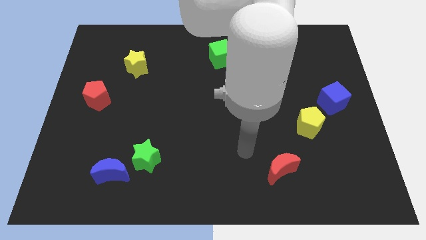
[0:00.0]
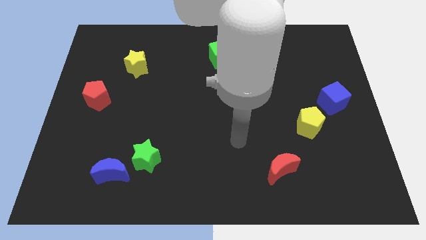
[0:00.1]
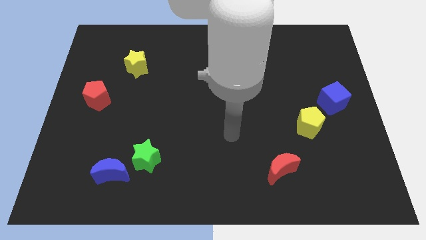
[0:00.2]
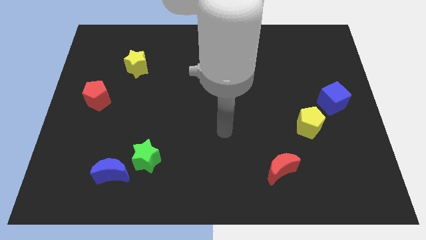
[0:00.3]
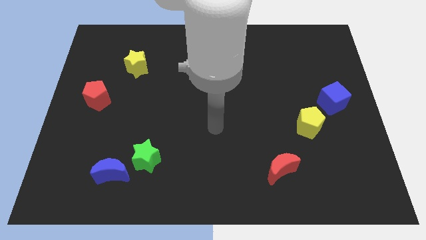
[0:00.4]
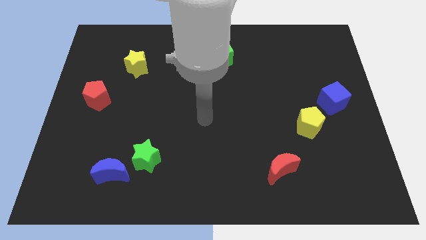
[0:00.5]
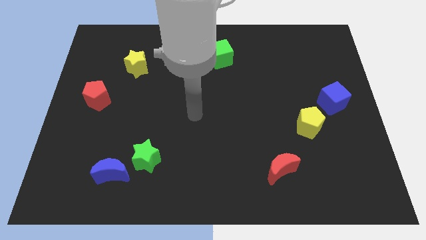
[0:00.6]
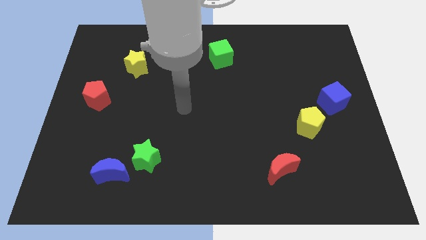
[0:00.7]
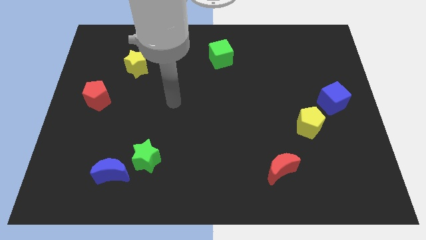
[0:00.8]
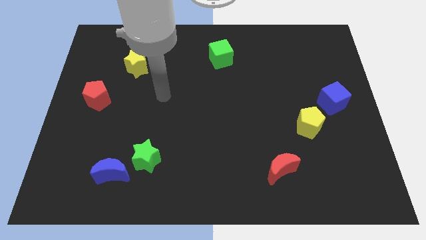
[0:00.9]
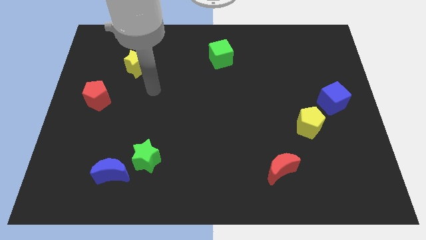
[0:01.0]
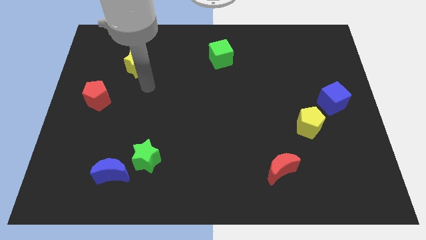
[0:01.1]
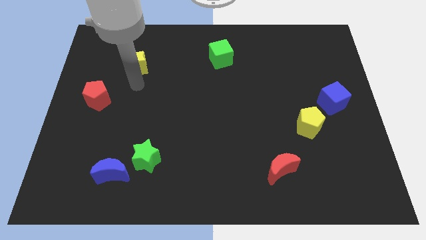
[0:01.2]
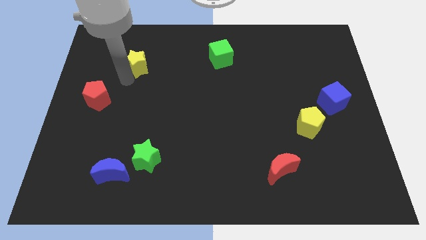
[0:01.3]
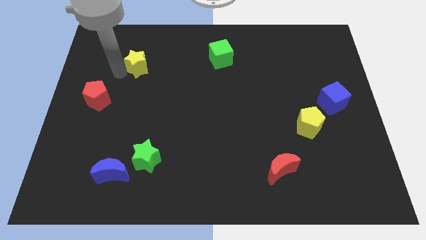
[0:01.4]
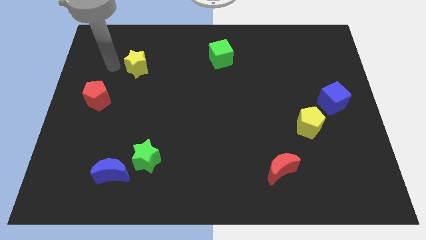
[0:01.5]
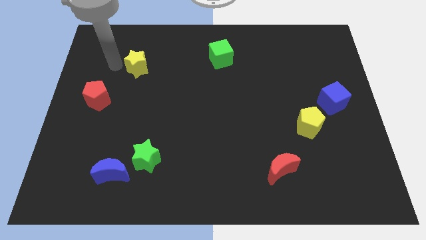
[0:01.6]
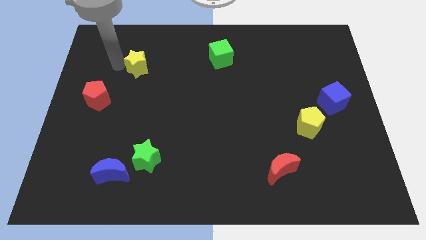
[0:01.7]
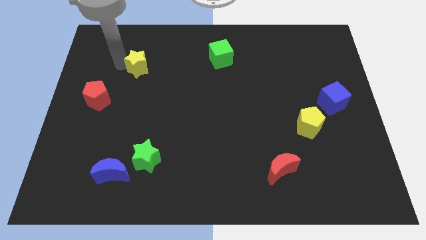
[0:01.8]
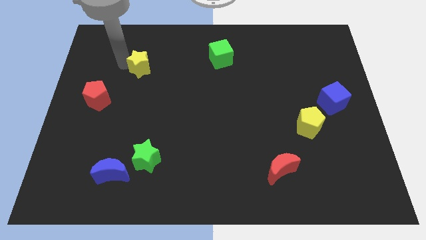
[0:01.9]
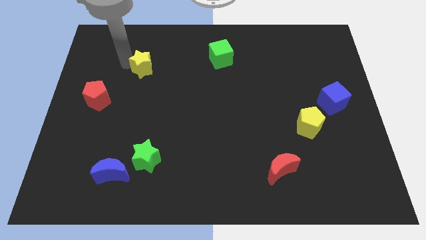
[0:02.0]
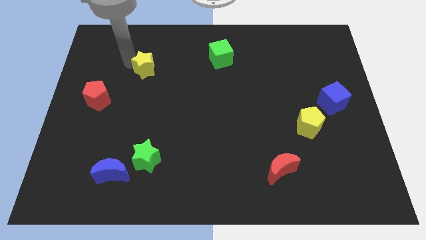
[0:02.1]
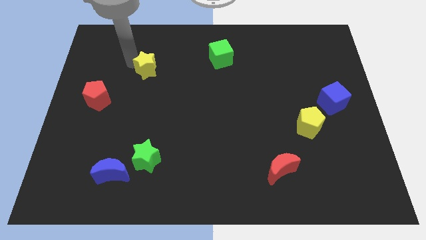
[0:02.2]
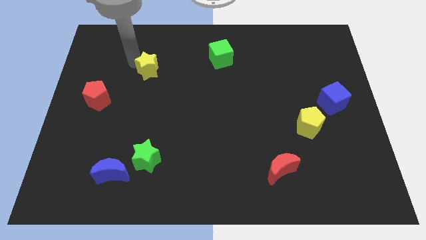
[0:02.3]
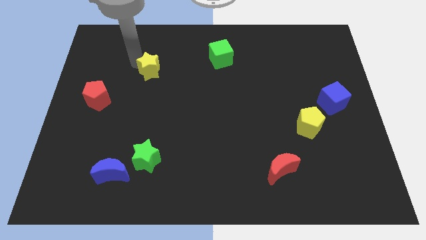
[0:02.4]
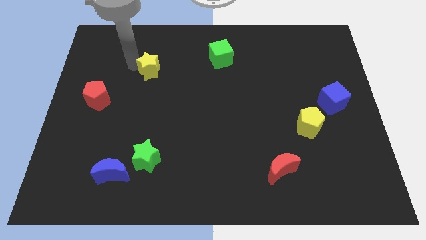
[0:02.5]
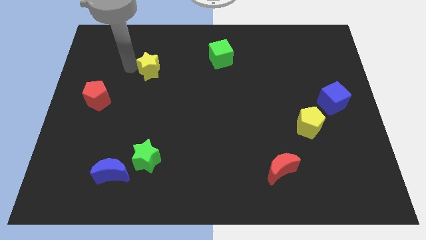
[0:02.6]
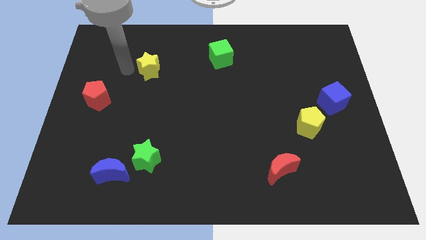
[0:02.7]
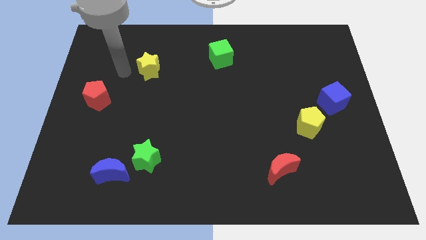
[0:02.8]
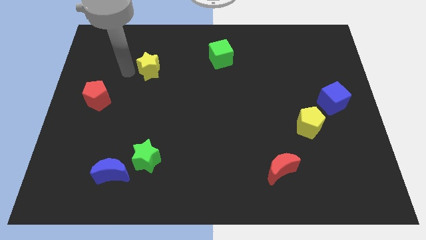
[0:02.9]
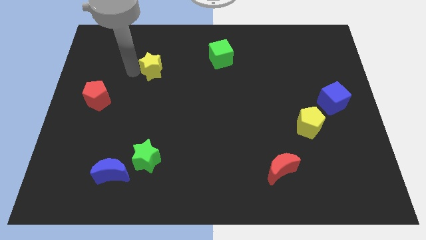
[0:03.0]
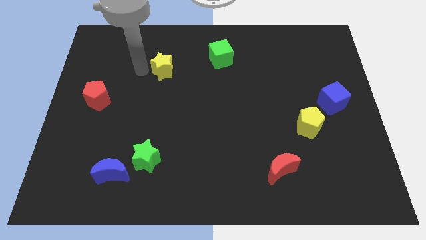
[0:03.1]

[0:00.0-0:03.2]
push the yellow star somewhat to the right

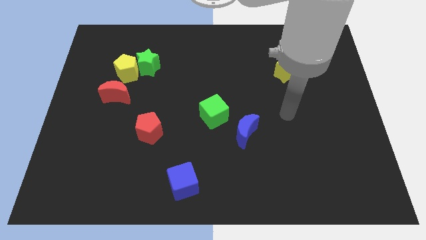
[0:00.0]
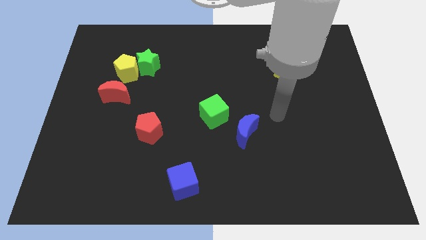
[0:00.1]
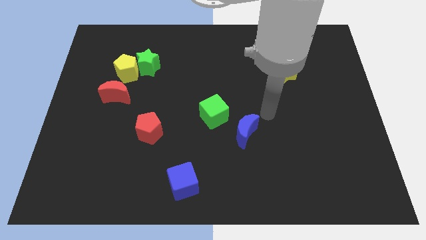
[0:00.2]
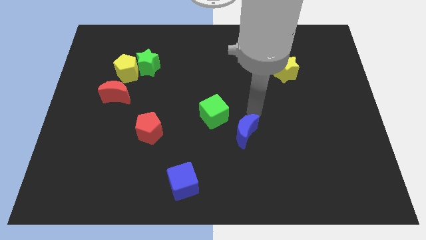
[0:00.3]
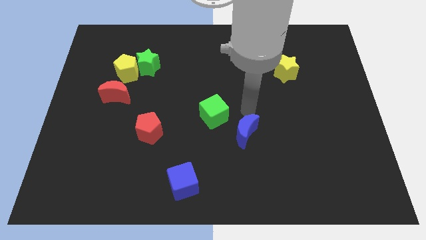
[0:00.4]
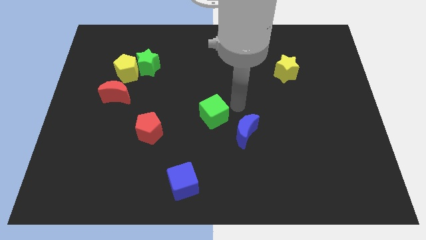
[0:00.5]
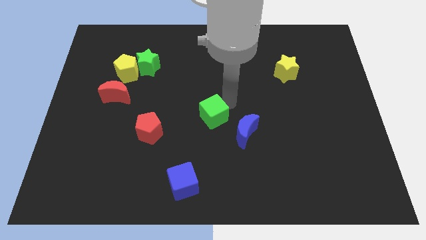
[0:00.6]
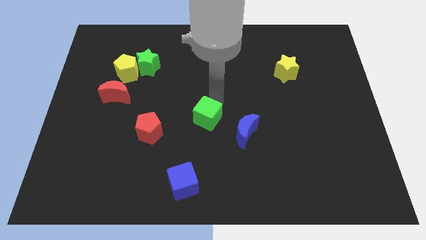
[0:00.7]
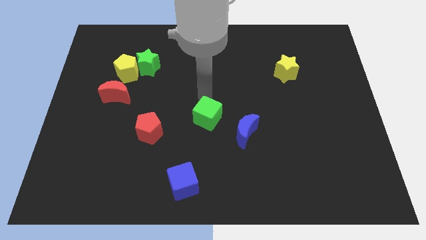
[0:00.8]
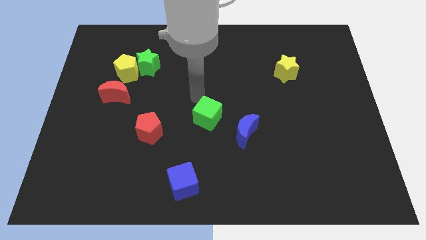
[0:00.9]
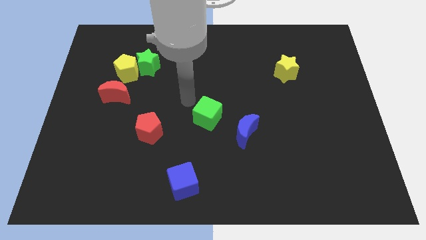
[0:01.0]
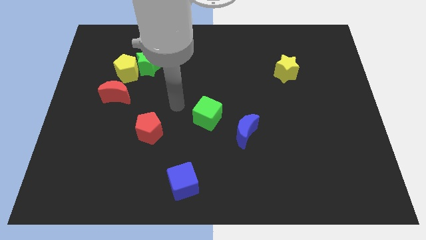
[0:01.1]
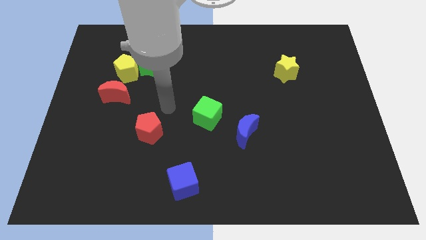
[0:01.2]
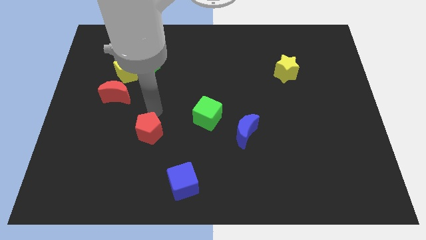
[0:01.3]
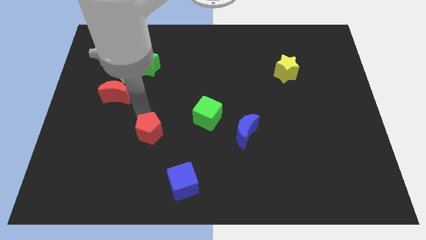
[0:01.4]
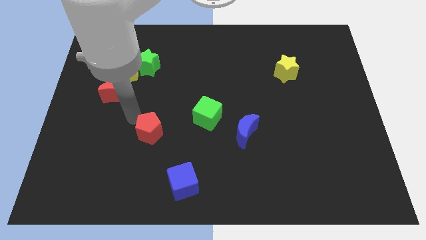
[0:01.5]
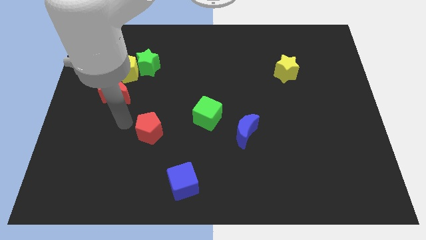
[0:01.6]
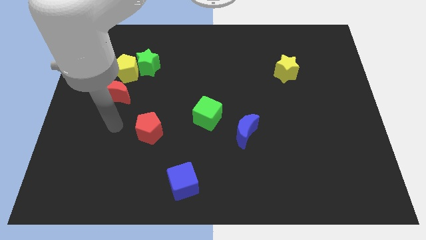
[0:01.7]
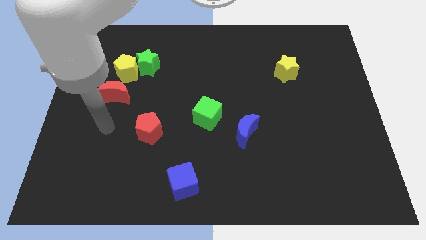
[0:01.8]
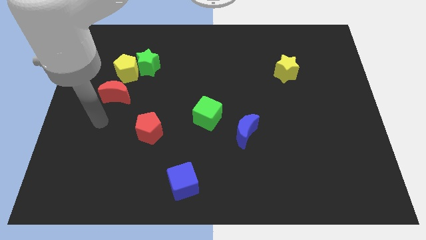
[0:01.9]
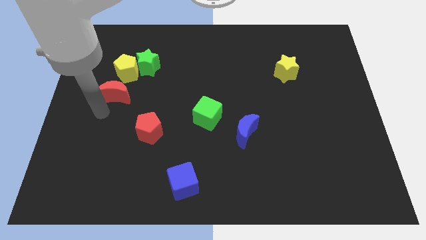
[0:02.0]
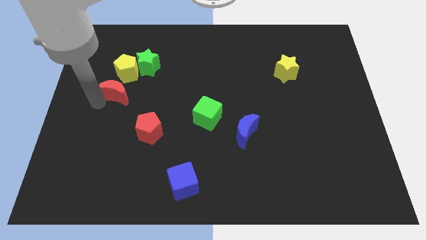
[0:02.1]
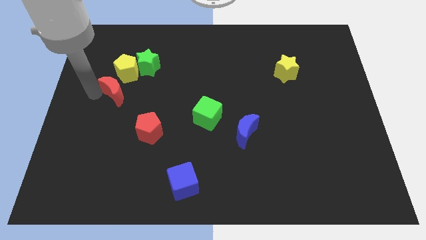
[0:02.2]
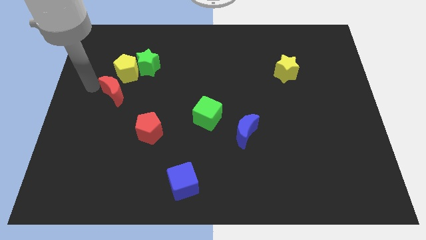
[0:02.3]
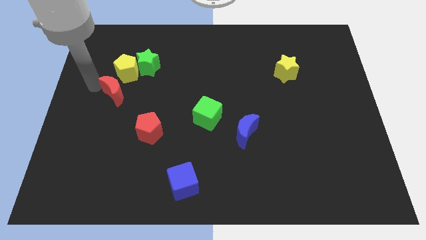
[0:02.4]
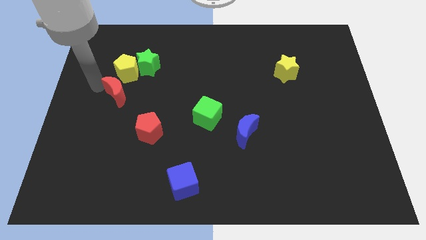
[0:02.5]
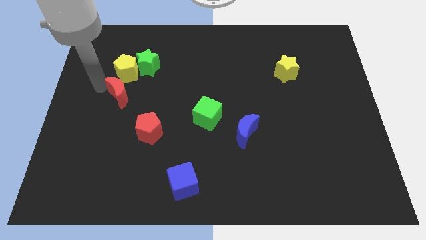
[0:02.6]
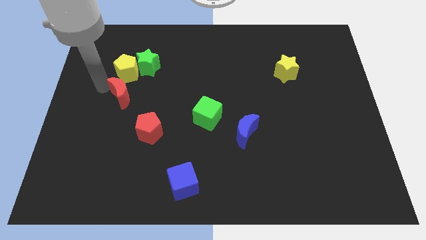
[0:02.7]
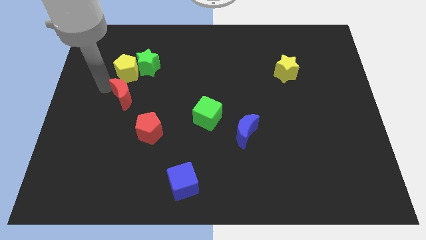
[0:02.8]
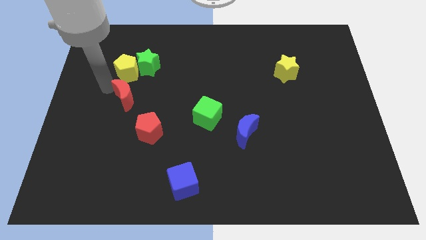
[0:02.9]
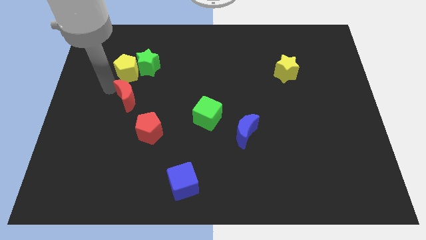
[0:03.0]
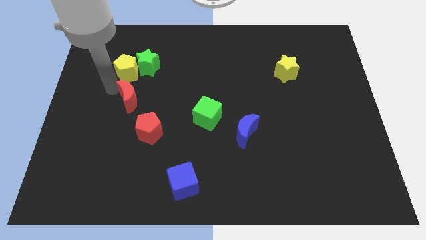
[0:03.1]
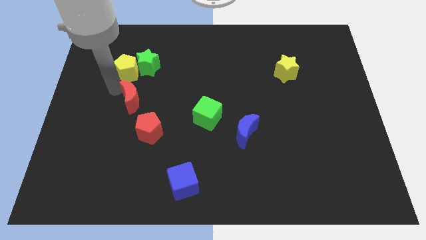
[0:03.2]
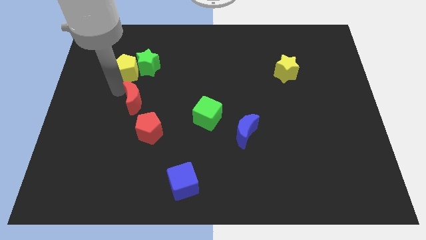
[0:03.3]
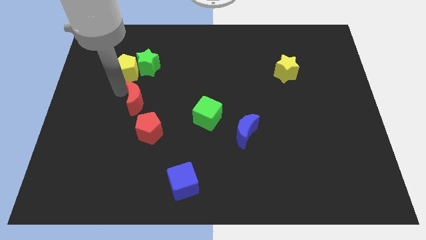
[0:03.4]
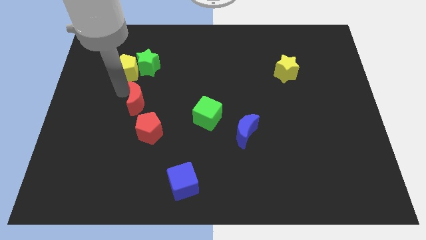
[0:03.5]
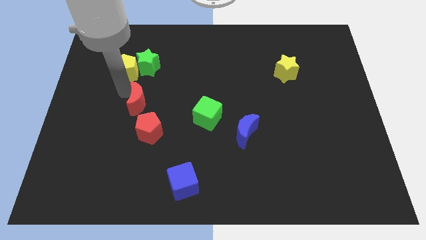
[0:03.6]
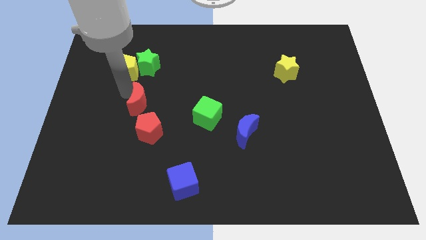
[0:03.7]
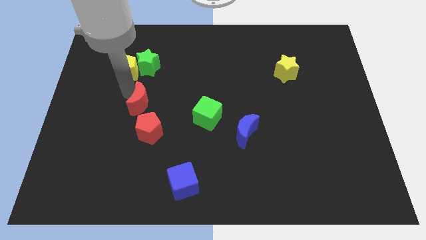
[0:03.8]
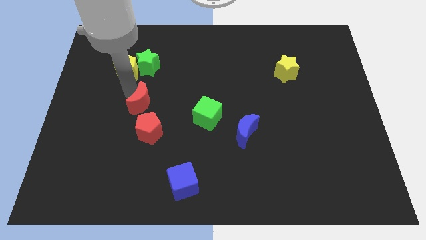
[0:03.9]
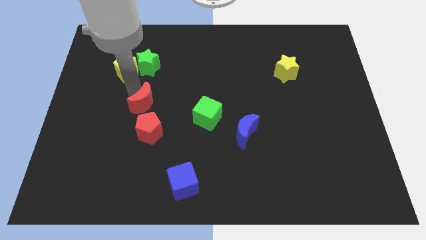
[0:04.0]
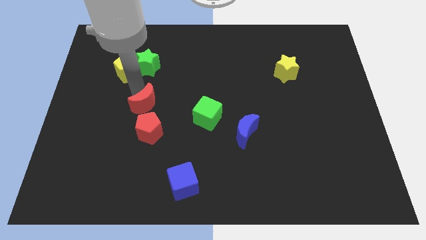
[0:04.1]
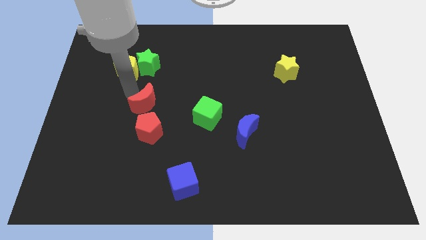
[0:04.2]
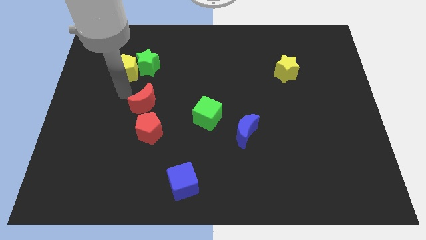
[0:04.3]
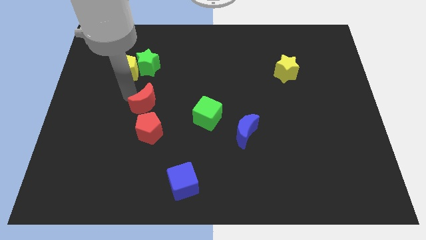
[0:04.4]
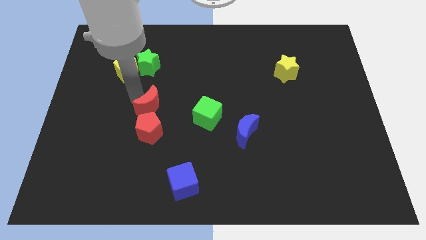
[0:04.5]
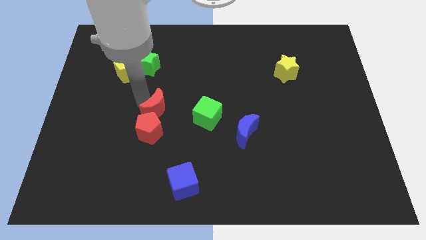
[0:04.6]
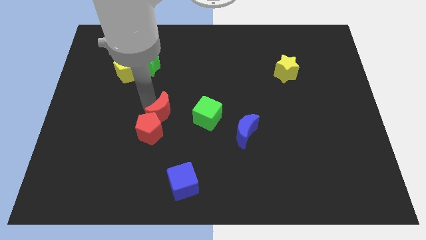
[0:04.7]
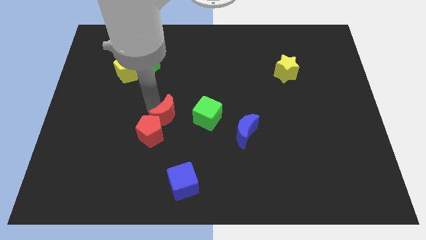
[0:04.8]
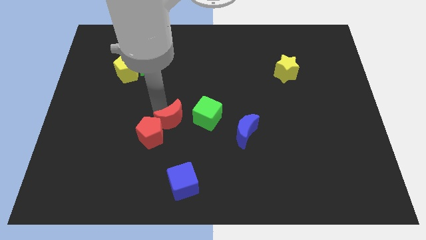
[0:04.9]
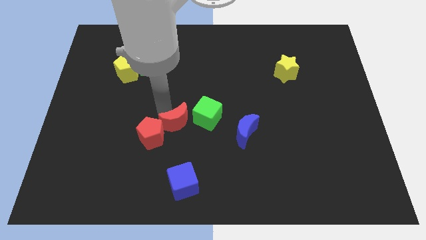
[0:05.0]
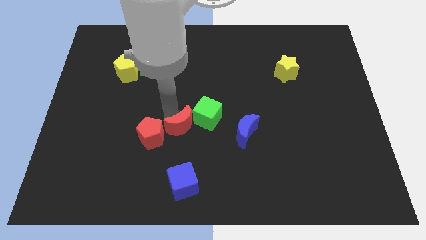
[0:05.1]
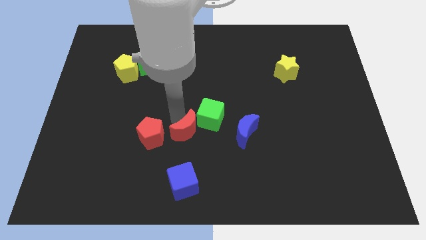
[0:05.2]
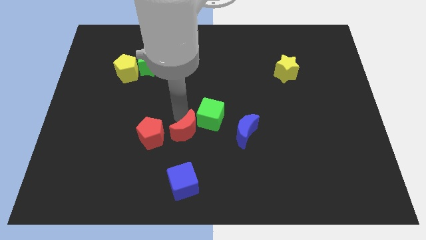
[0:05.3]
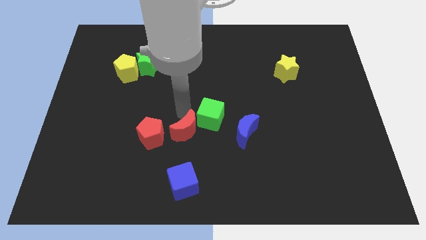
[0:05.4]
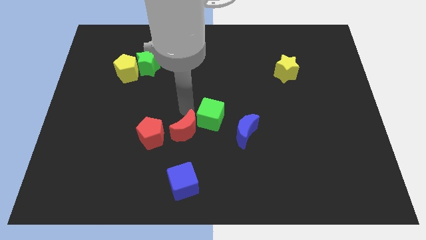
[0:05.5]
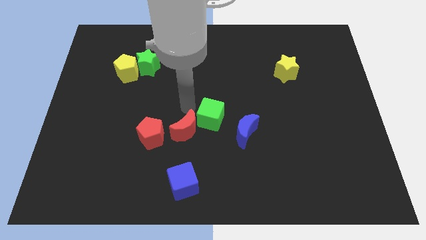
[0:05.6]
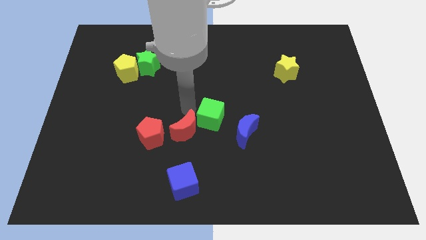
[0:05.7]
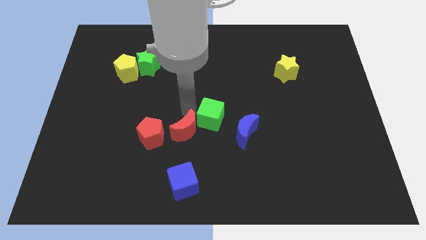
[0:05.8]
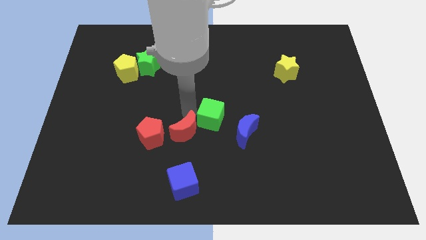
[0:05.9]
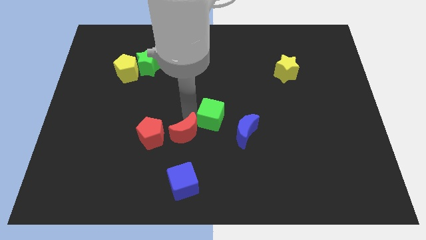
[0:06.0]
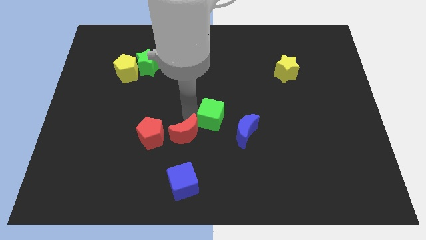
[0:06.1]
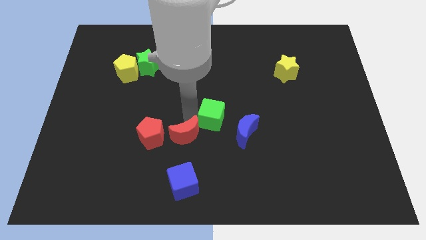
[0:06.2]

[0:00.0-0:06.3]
move the red moon downwards and right
